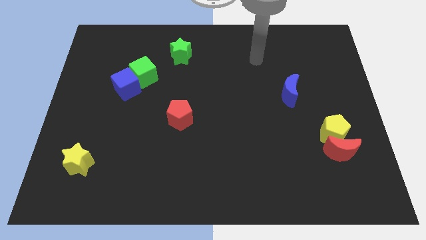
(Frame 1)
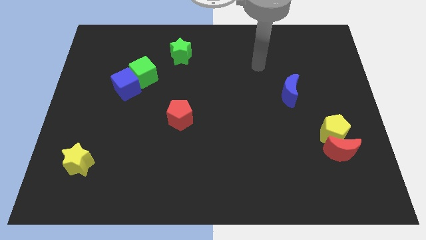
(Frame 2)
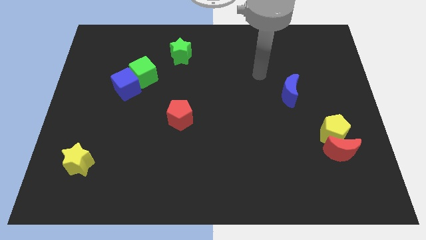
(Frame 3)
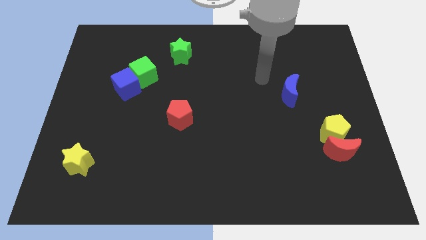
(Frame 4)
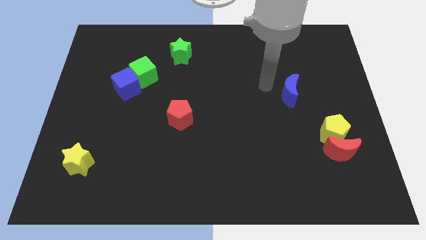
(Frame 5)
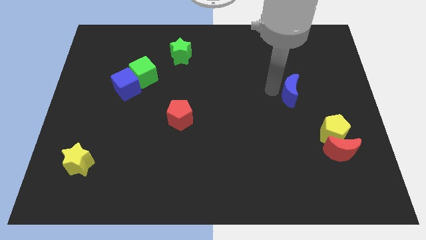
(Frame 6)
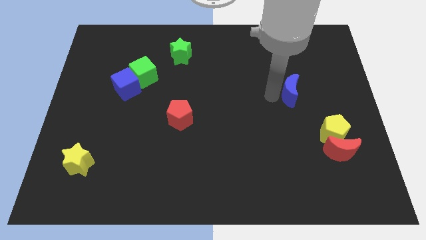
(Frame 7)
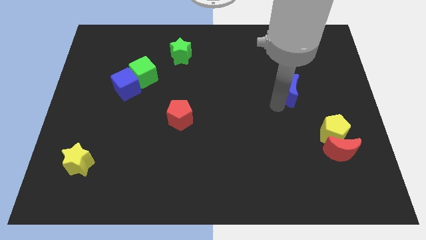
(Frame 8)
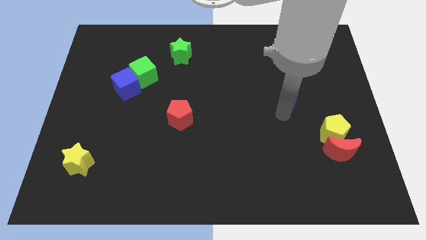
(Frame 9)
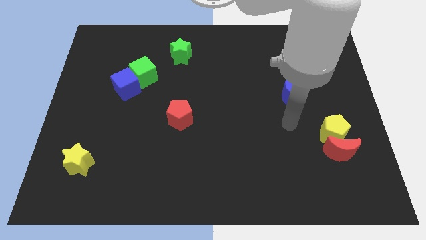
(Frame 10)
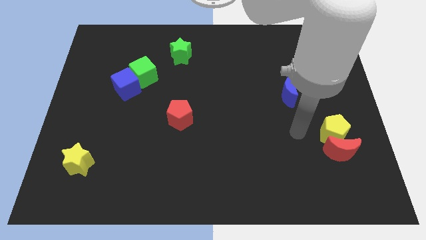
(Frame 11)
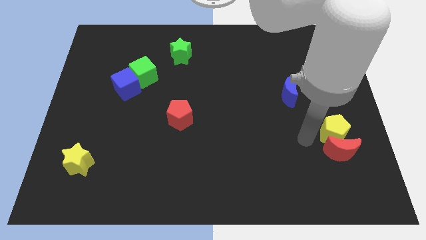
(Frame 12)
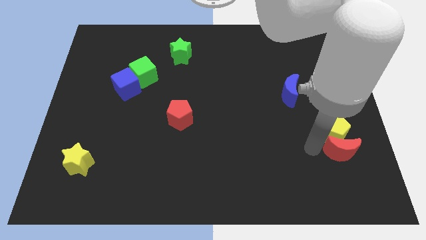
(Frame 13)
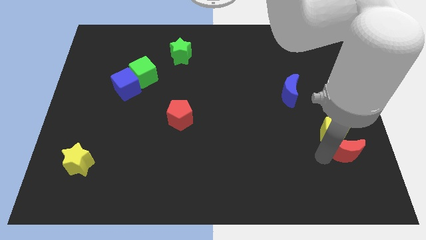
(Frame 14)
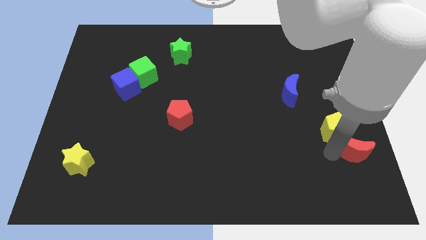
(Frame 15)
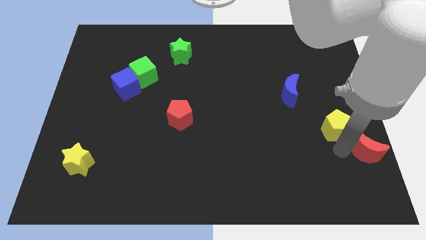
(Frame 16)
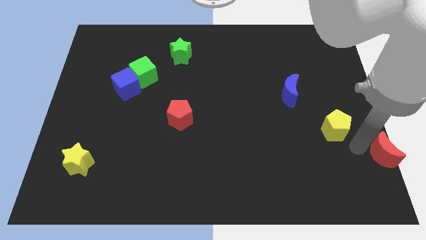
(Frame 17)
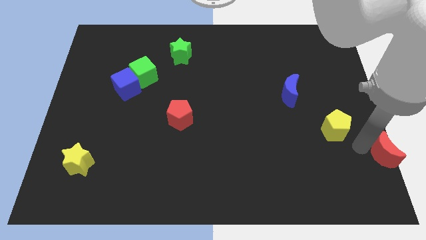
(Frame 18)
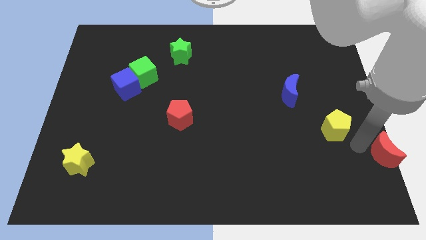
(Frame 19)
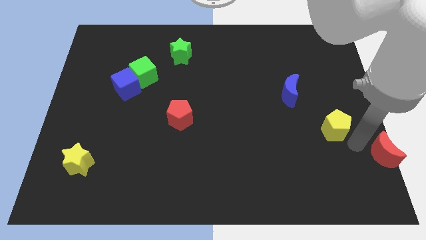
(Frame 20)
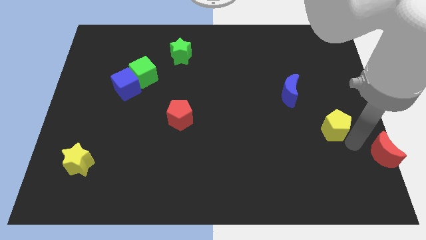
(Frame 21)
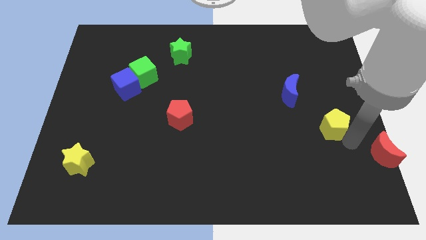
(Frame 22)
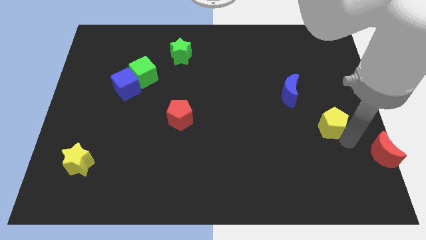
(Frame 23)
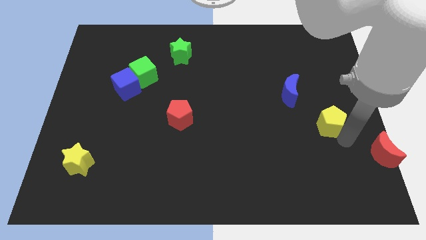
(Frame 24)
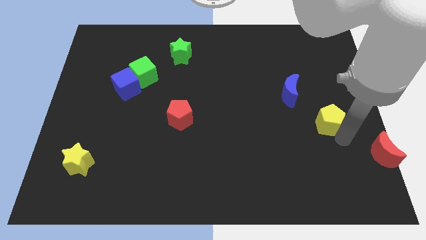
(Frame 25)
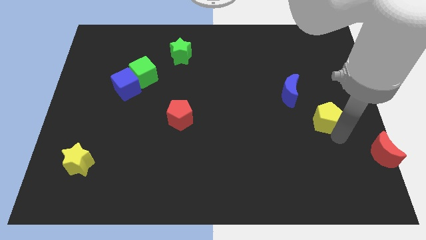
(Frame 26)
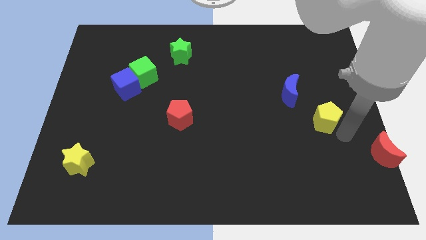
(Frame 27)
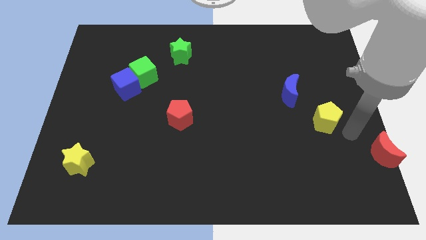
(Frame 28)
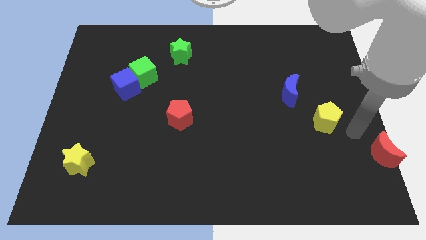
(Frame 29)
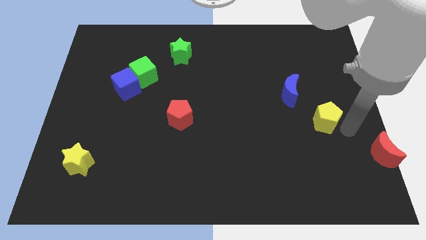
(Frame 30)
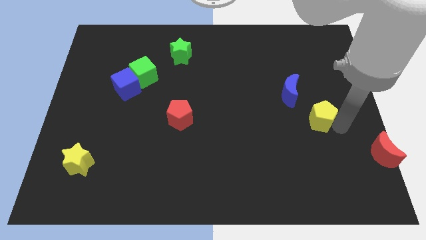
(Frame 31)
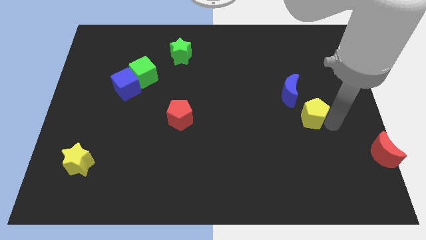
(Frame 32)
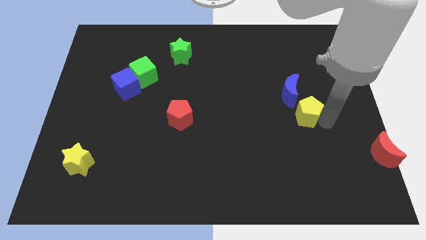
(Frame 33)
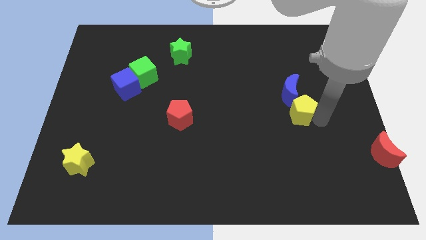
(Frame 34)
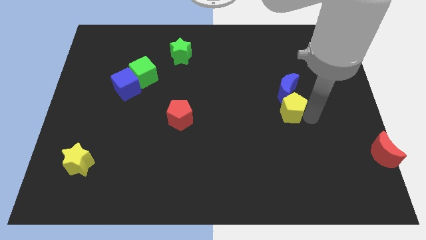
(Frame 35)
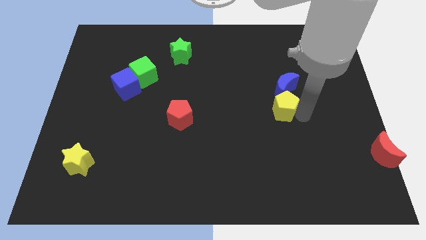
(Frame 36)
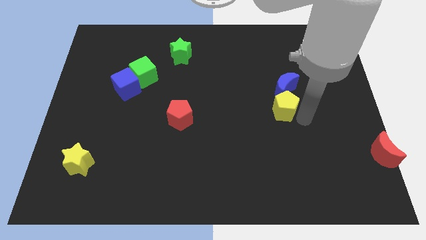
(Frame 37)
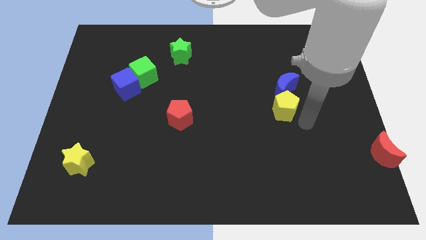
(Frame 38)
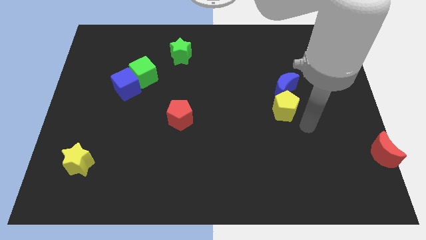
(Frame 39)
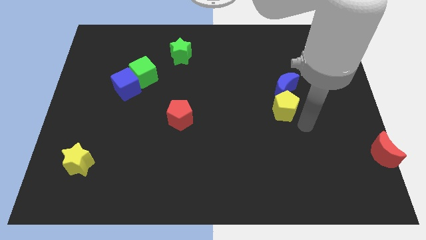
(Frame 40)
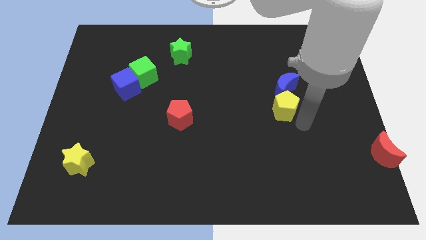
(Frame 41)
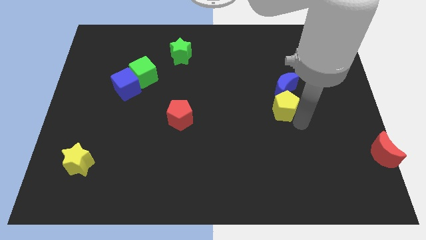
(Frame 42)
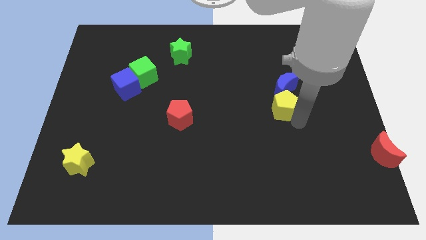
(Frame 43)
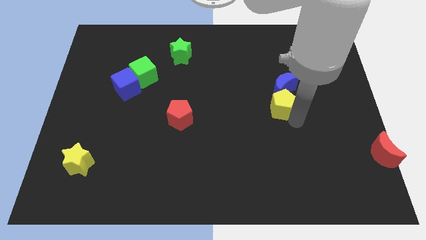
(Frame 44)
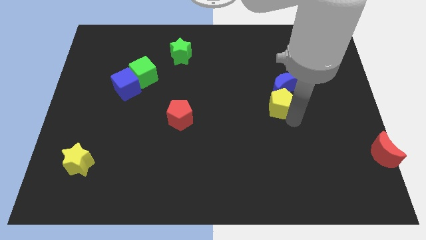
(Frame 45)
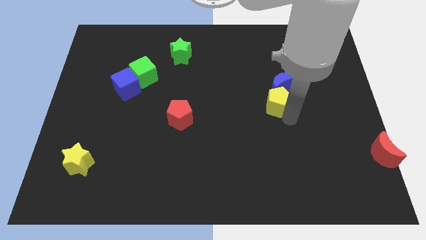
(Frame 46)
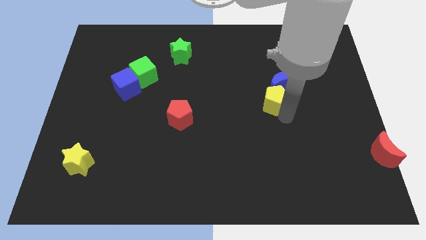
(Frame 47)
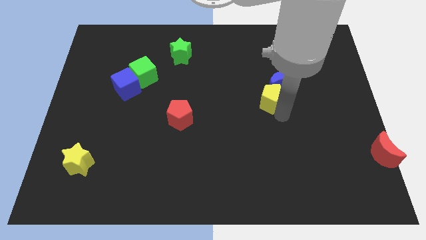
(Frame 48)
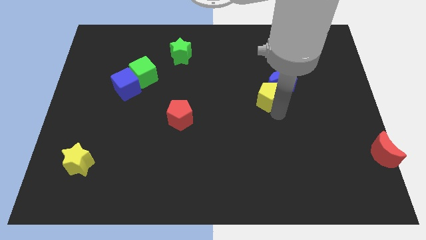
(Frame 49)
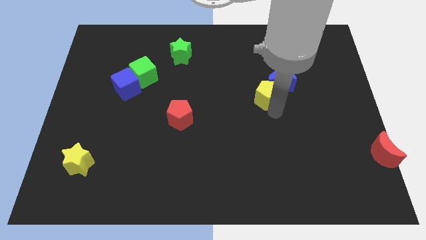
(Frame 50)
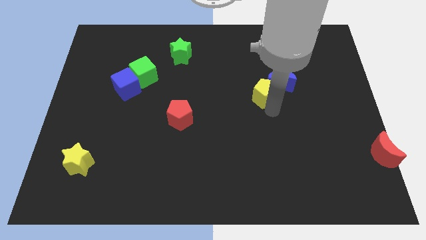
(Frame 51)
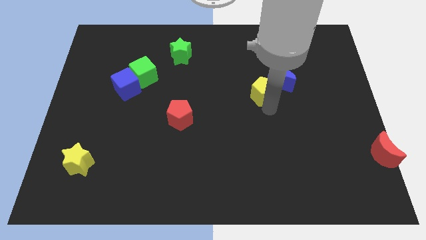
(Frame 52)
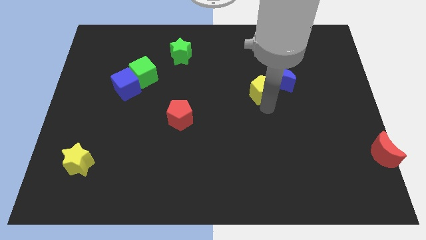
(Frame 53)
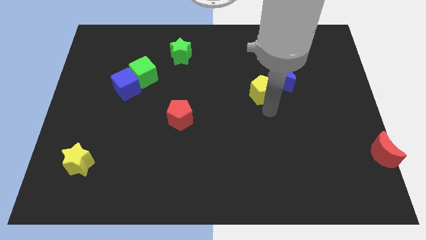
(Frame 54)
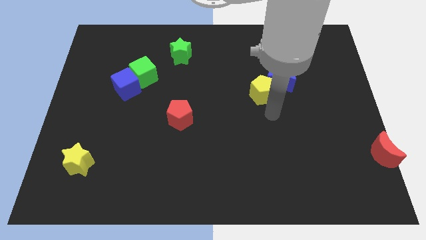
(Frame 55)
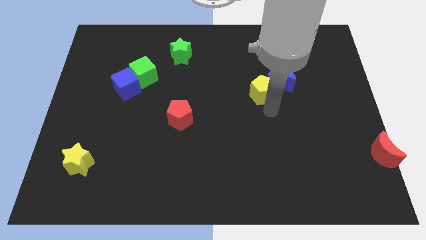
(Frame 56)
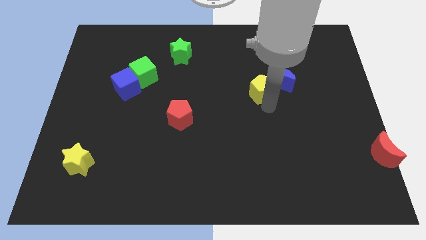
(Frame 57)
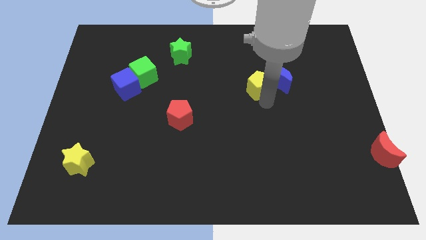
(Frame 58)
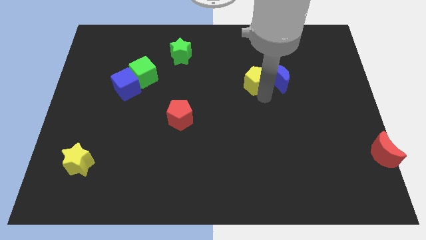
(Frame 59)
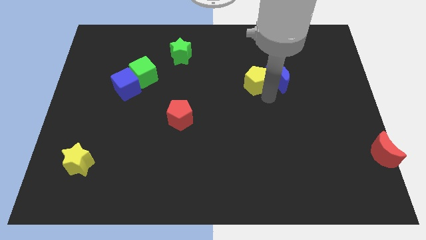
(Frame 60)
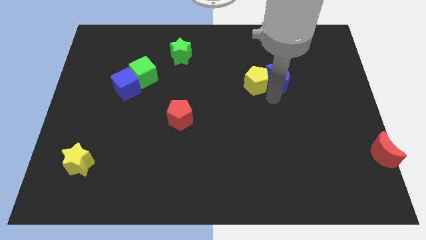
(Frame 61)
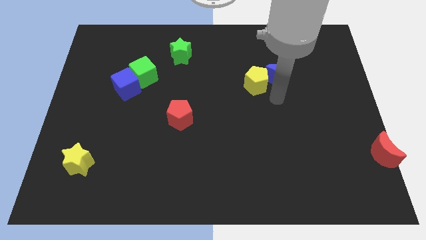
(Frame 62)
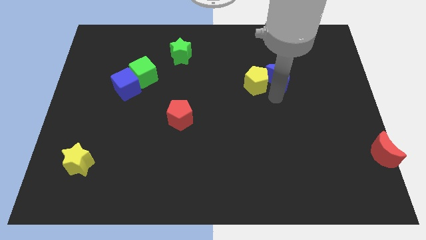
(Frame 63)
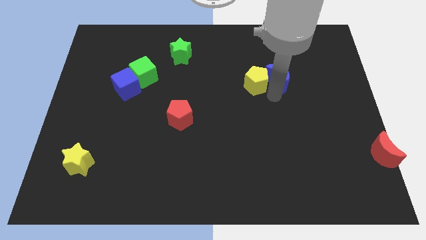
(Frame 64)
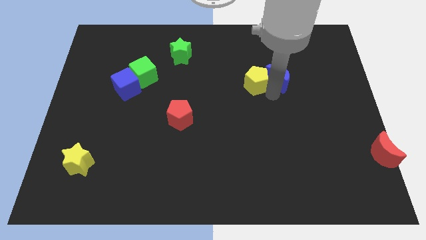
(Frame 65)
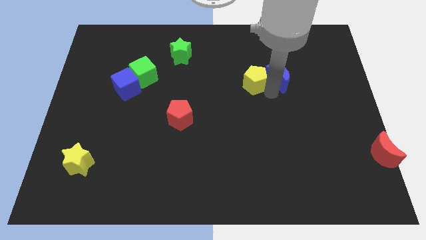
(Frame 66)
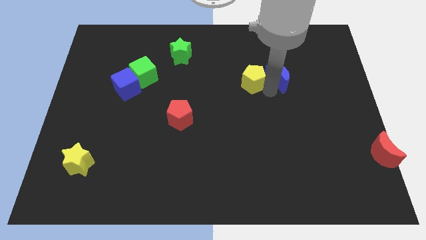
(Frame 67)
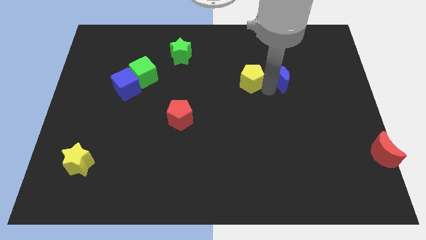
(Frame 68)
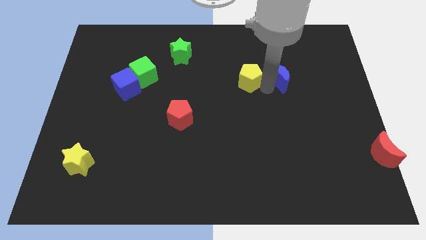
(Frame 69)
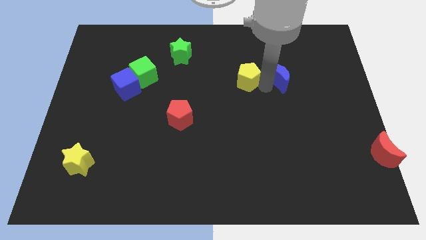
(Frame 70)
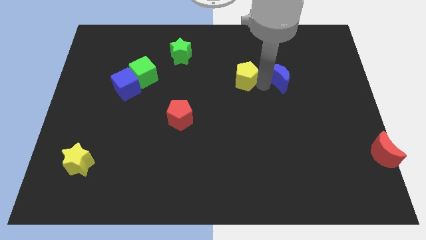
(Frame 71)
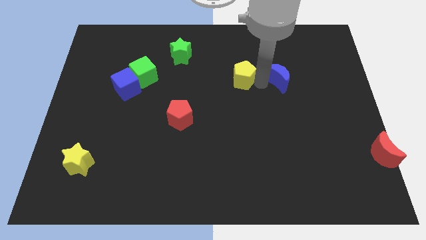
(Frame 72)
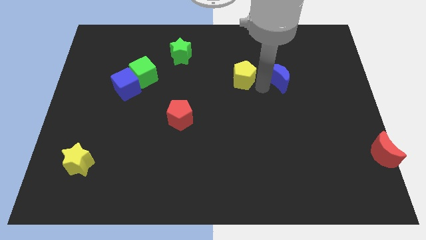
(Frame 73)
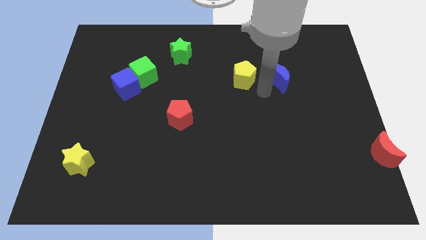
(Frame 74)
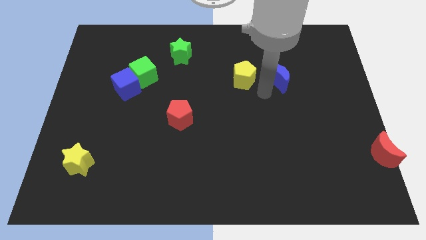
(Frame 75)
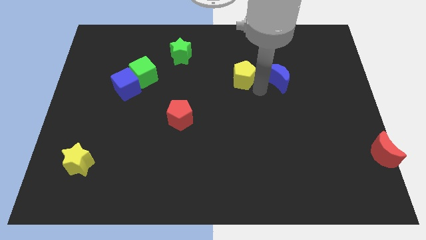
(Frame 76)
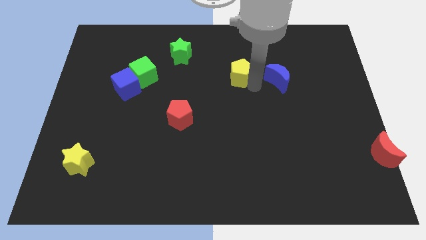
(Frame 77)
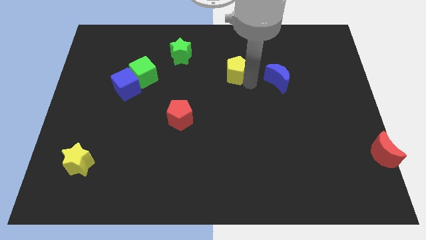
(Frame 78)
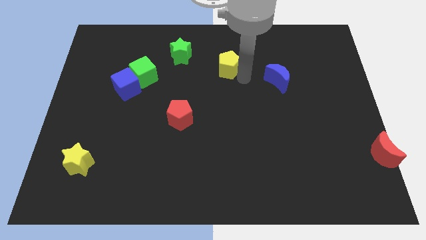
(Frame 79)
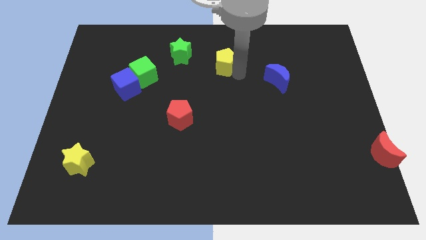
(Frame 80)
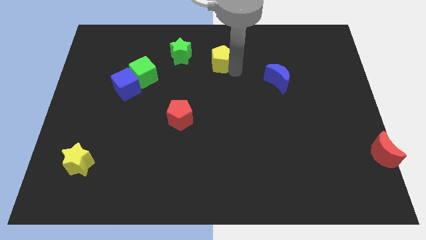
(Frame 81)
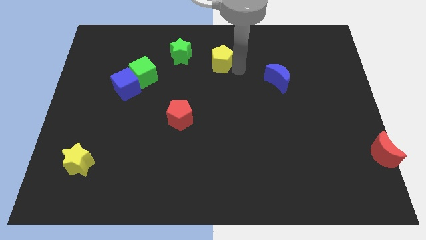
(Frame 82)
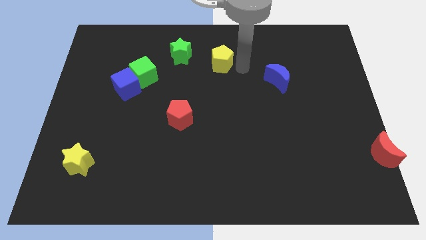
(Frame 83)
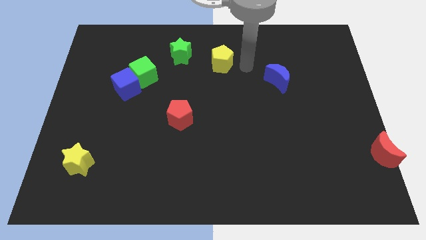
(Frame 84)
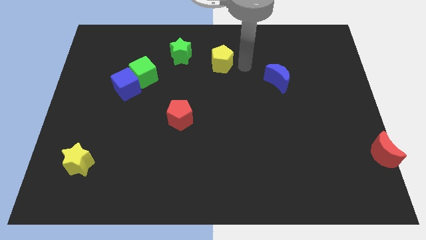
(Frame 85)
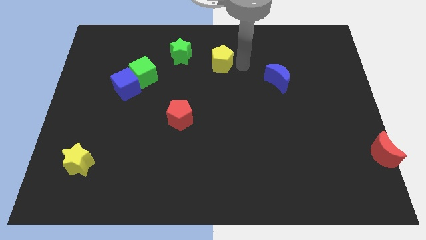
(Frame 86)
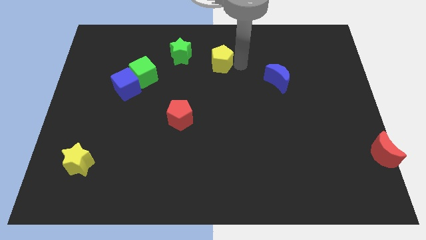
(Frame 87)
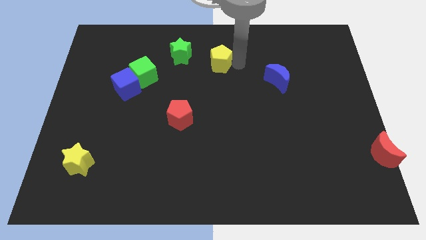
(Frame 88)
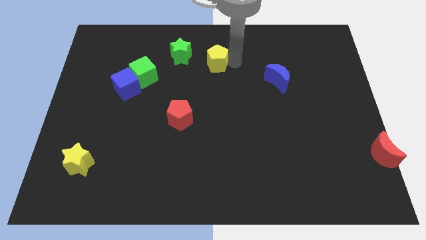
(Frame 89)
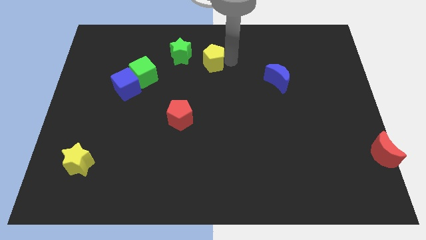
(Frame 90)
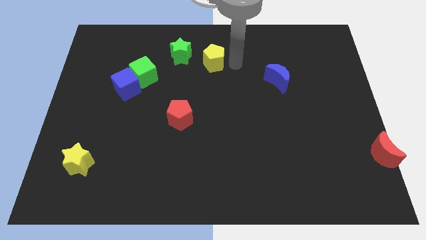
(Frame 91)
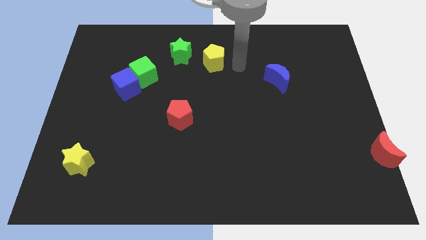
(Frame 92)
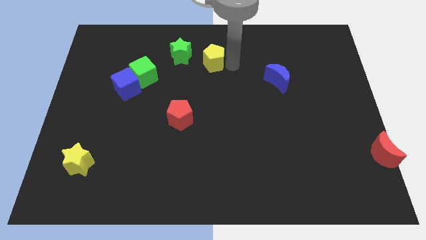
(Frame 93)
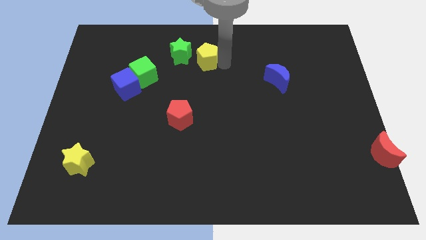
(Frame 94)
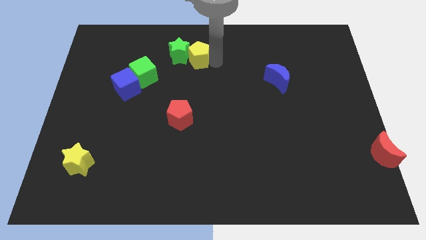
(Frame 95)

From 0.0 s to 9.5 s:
move the yellow pentagon close to the green star
